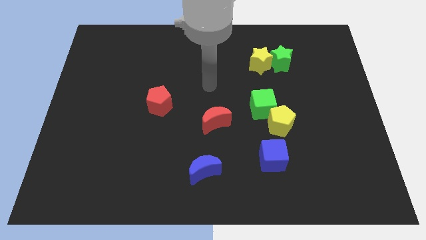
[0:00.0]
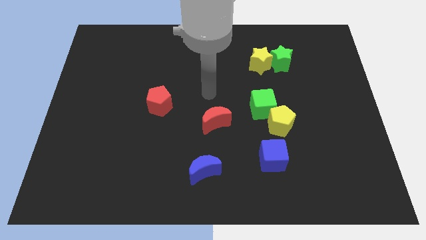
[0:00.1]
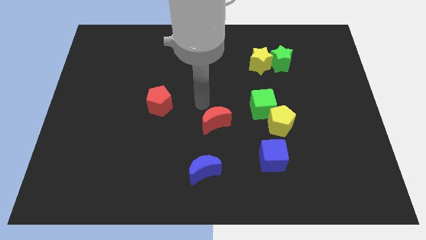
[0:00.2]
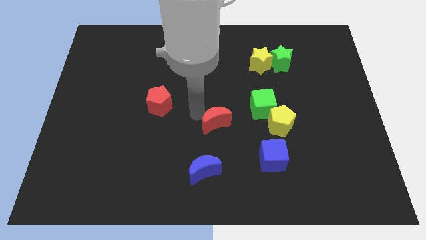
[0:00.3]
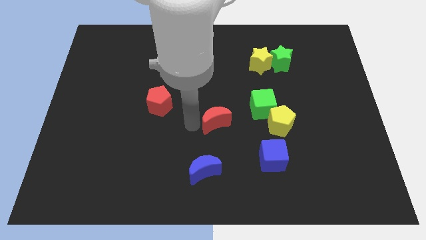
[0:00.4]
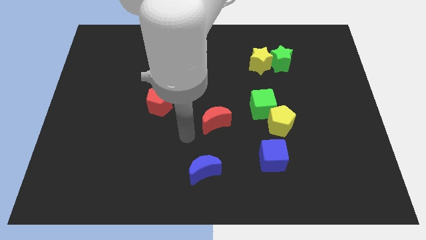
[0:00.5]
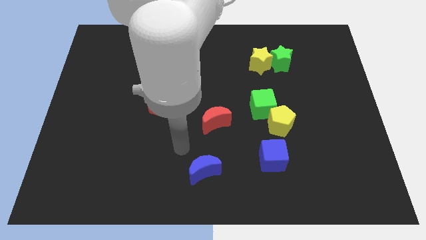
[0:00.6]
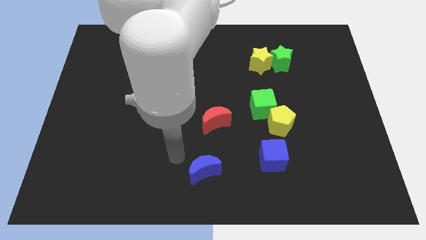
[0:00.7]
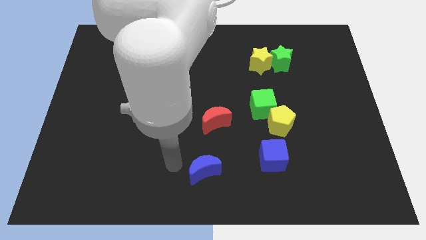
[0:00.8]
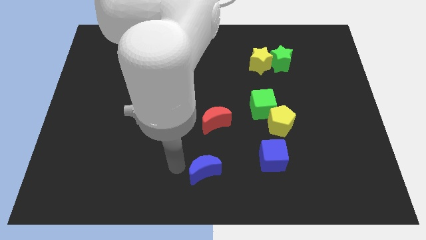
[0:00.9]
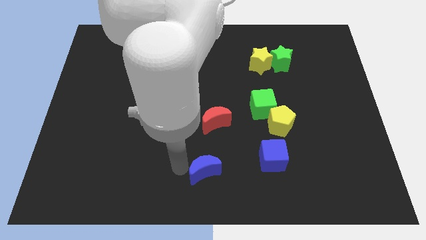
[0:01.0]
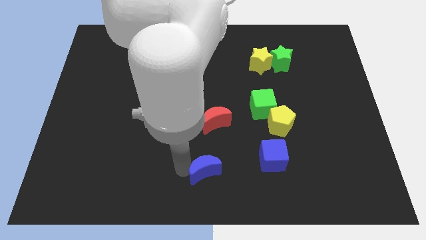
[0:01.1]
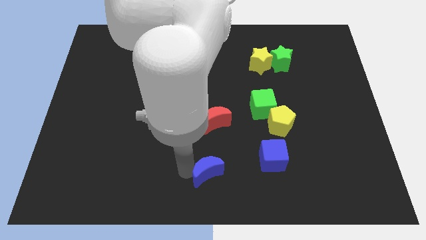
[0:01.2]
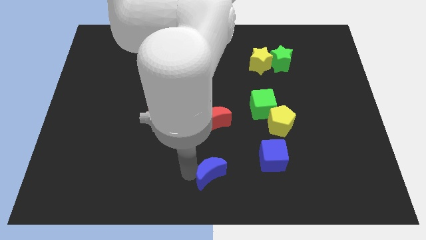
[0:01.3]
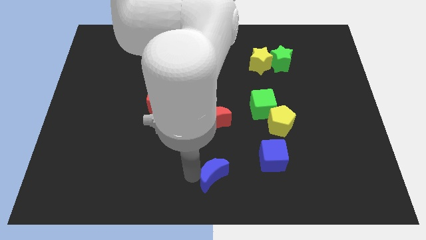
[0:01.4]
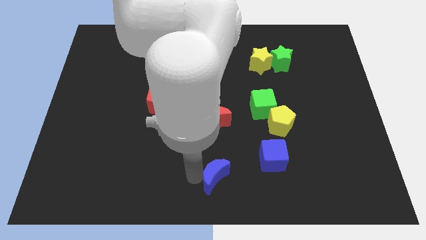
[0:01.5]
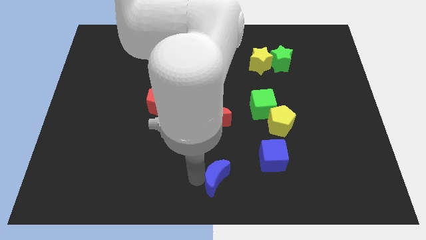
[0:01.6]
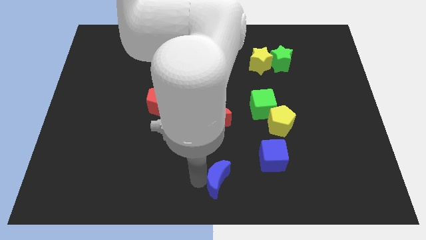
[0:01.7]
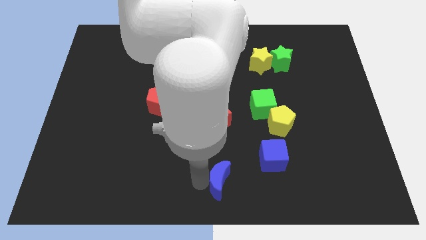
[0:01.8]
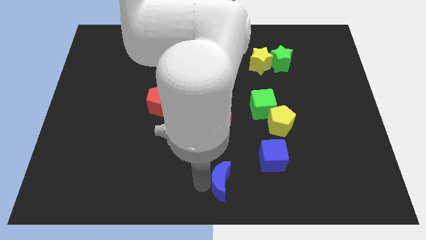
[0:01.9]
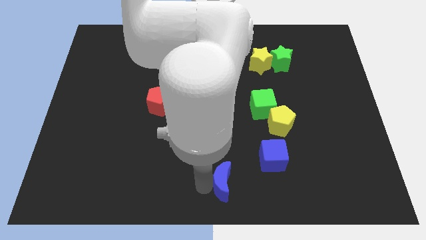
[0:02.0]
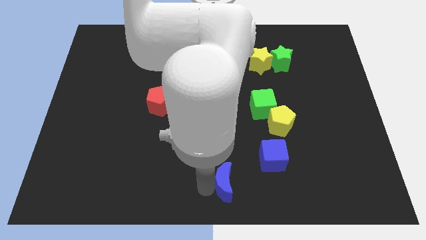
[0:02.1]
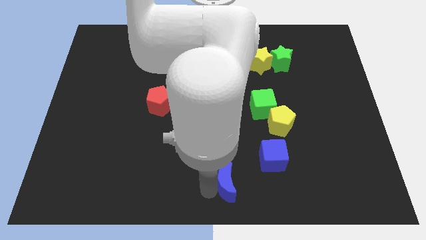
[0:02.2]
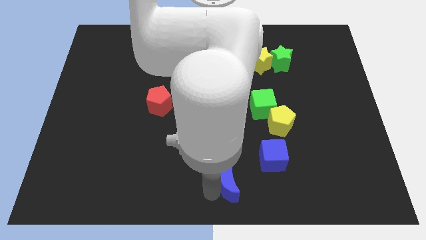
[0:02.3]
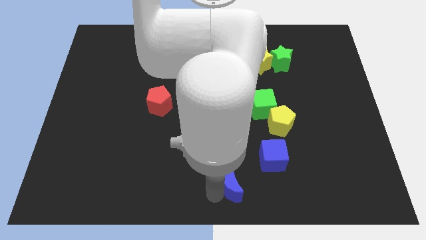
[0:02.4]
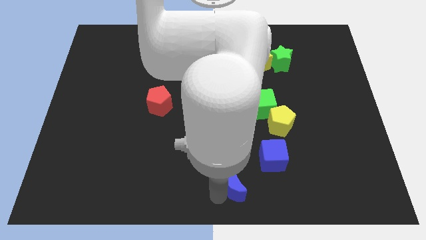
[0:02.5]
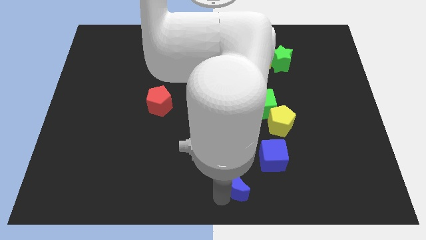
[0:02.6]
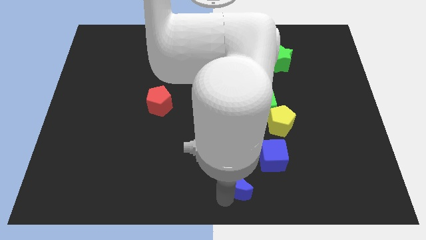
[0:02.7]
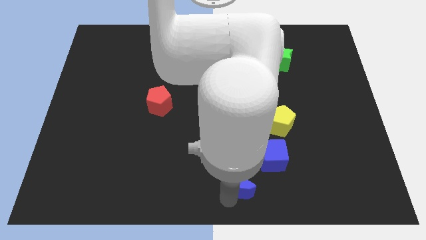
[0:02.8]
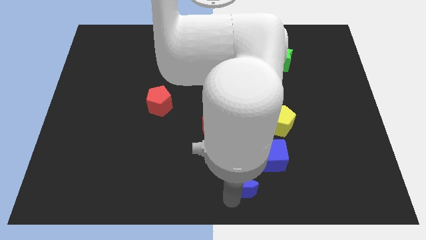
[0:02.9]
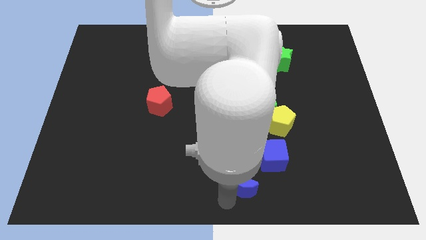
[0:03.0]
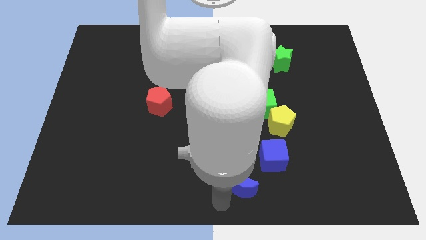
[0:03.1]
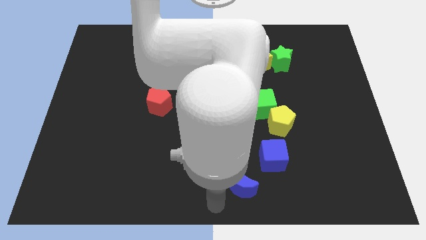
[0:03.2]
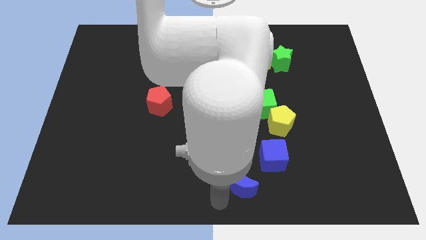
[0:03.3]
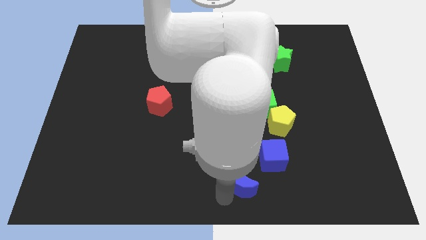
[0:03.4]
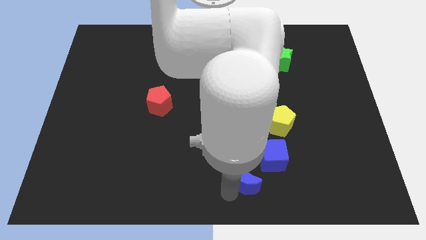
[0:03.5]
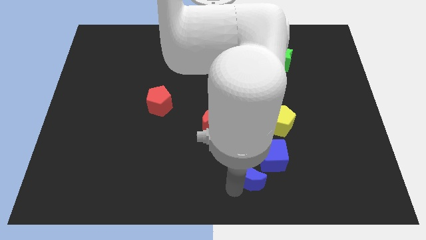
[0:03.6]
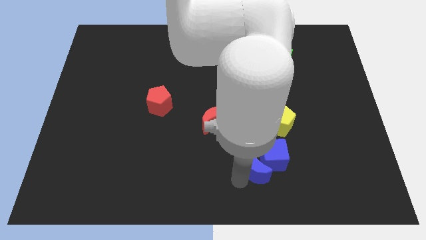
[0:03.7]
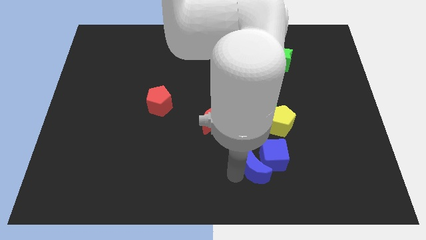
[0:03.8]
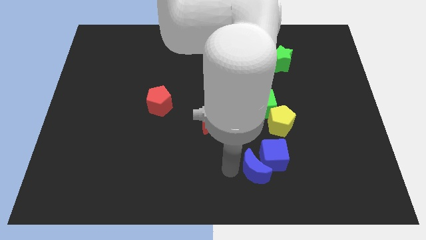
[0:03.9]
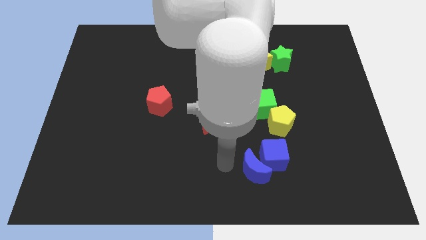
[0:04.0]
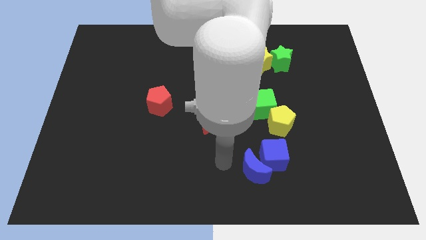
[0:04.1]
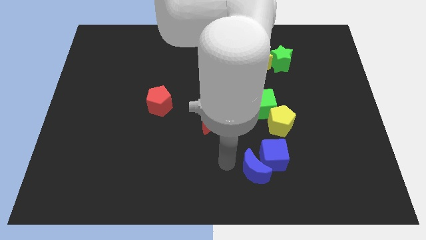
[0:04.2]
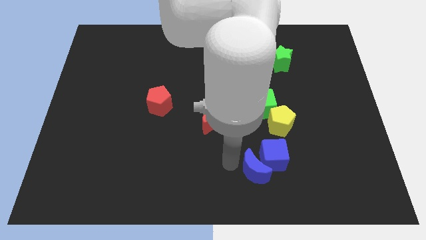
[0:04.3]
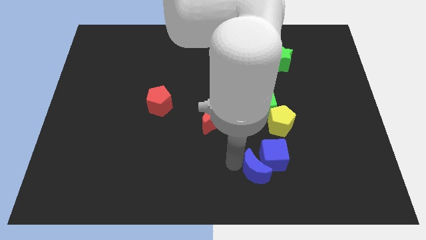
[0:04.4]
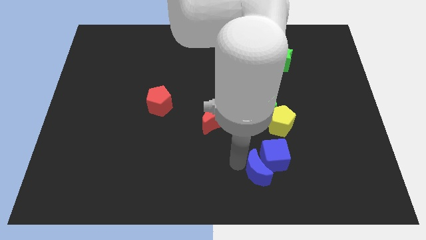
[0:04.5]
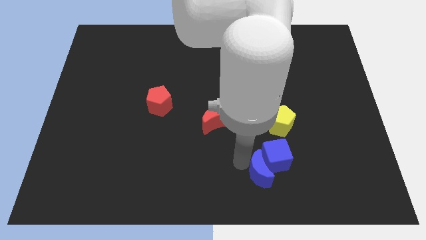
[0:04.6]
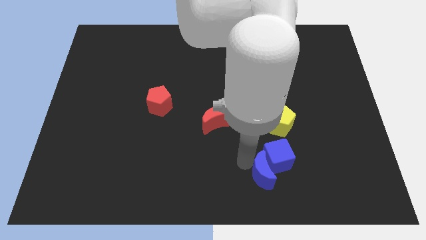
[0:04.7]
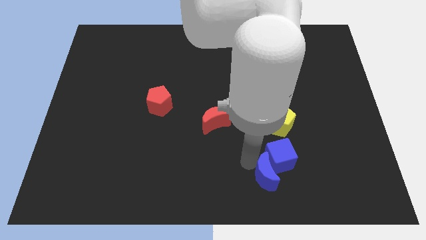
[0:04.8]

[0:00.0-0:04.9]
move the blue moon below the yellow pentagon

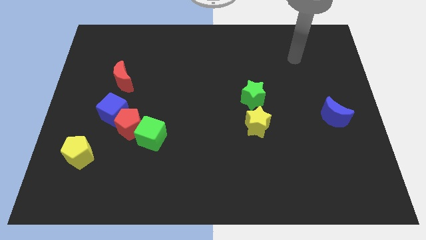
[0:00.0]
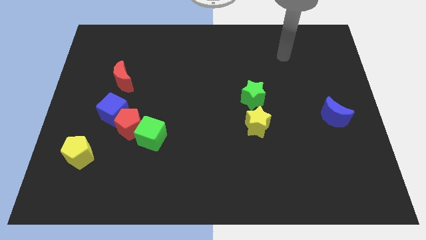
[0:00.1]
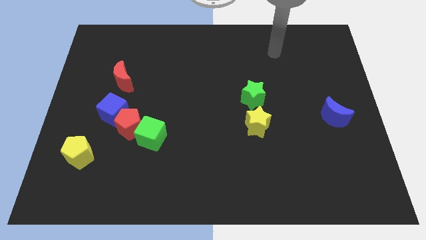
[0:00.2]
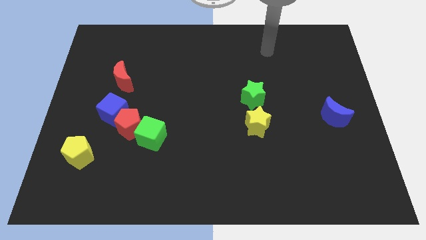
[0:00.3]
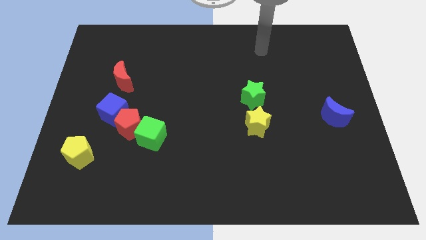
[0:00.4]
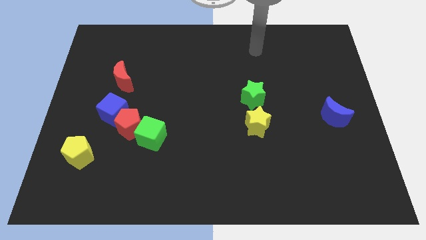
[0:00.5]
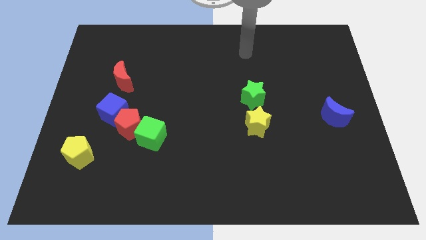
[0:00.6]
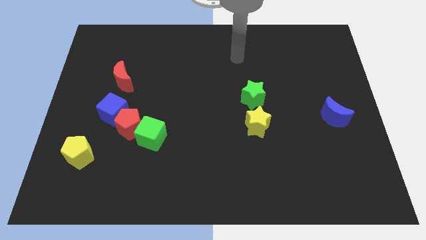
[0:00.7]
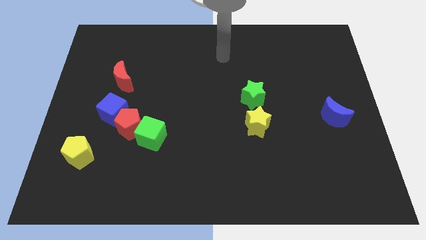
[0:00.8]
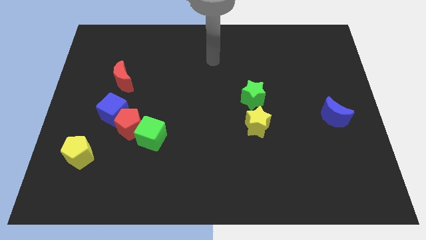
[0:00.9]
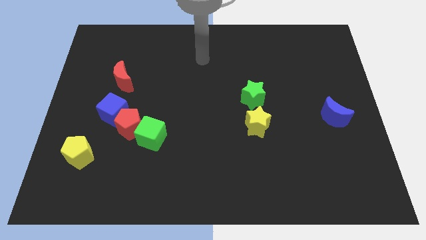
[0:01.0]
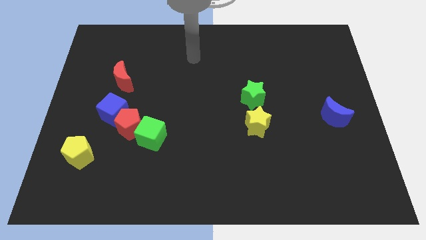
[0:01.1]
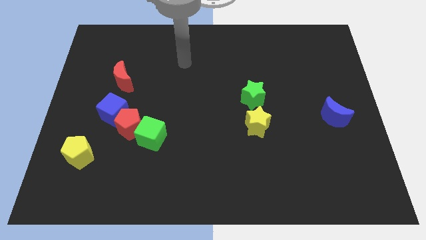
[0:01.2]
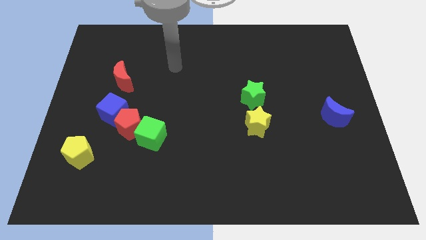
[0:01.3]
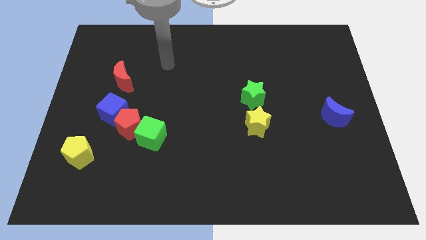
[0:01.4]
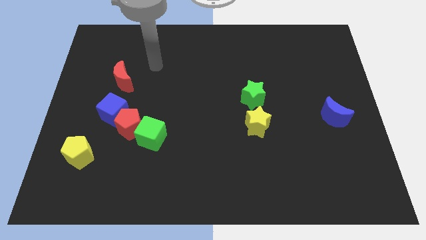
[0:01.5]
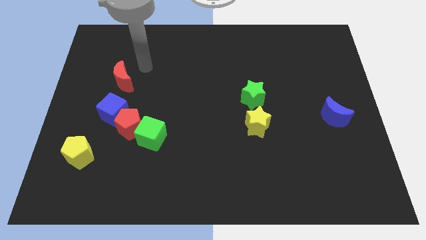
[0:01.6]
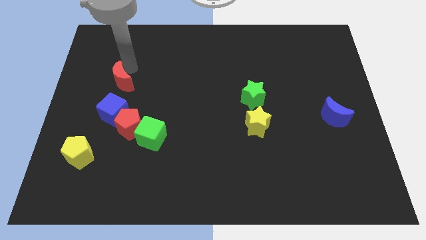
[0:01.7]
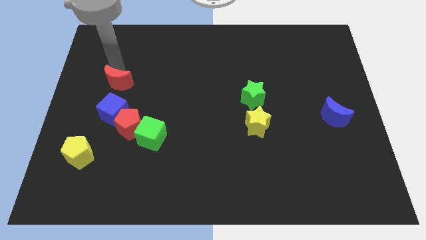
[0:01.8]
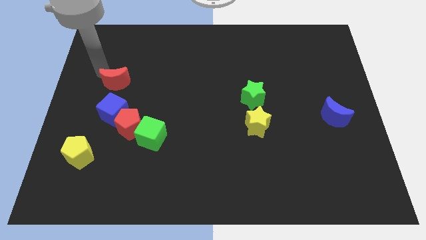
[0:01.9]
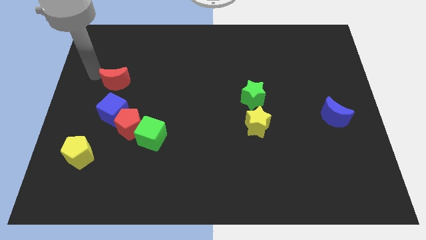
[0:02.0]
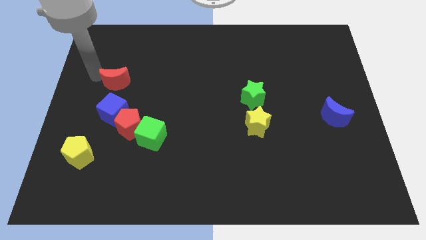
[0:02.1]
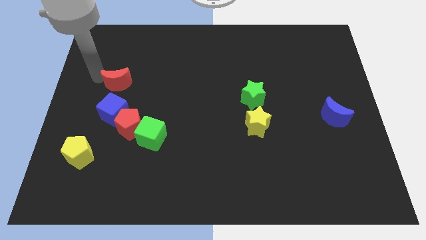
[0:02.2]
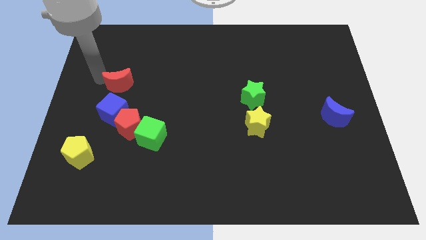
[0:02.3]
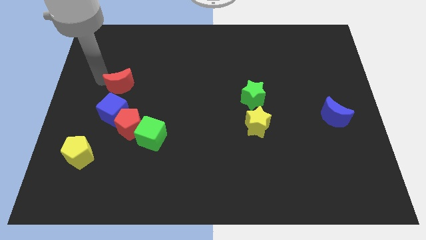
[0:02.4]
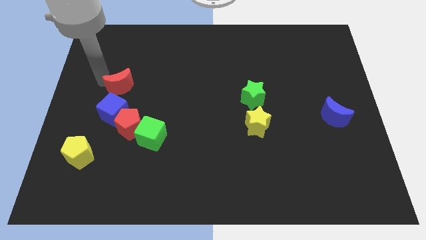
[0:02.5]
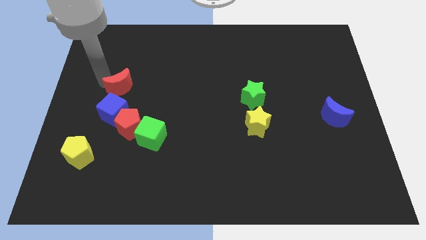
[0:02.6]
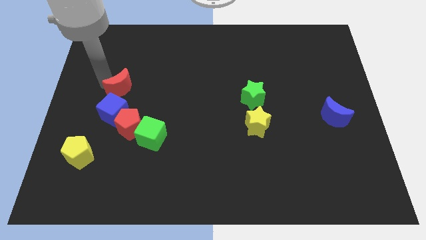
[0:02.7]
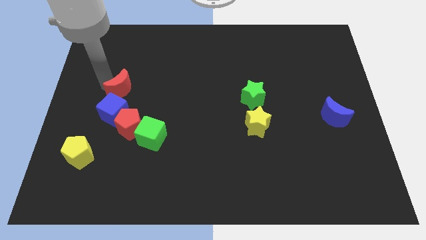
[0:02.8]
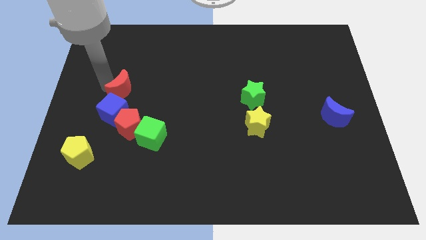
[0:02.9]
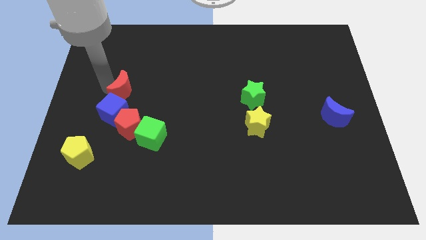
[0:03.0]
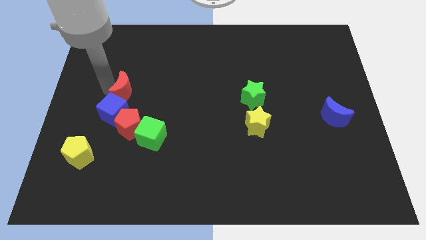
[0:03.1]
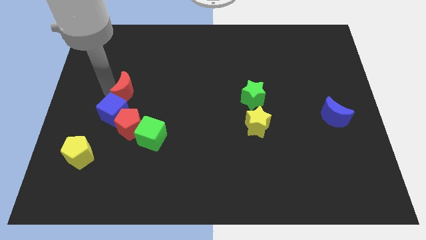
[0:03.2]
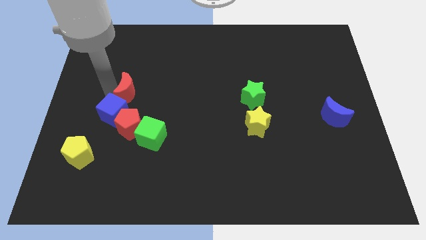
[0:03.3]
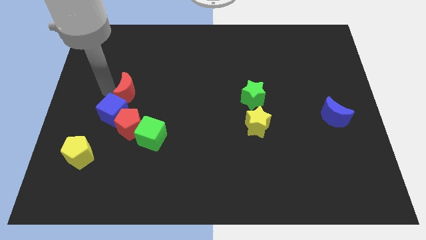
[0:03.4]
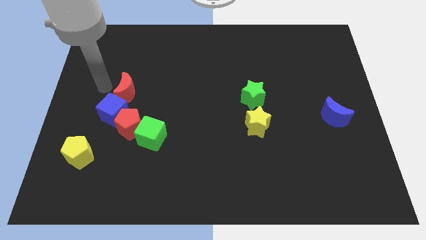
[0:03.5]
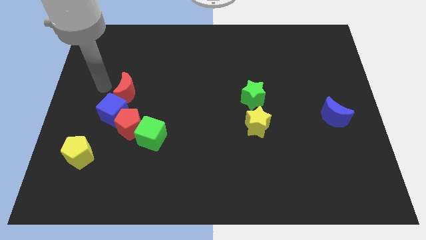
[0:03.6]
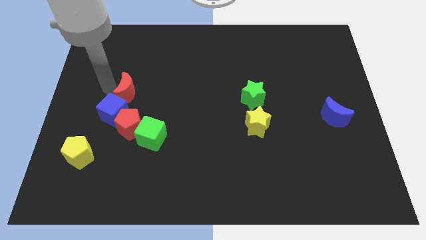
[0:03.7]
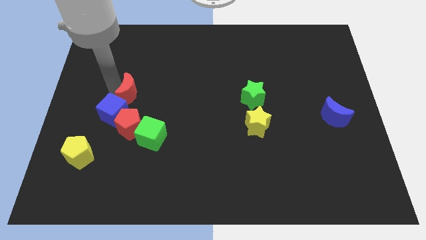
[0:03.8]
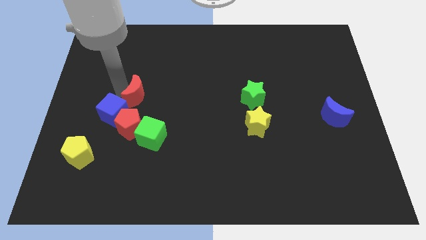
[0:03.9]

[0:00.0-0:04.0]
put the red moon to the top of the green cube
